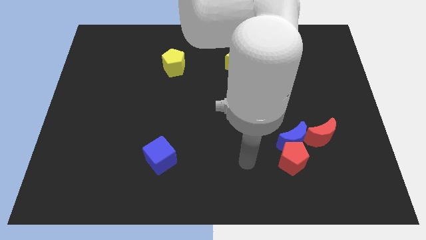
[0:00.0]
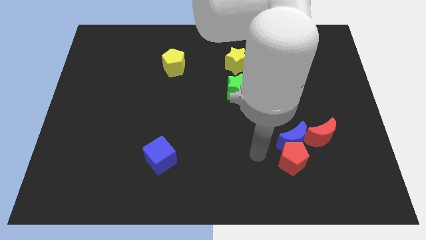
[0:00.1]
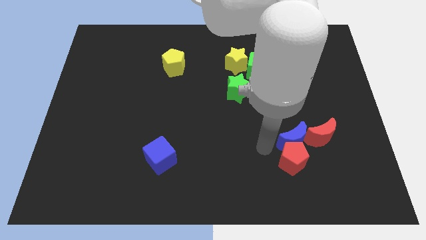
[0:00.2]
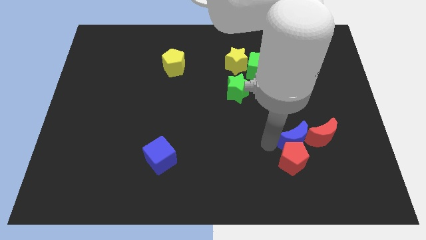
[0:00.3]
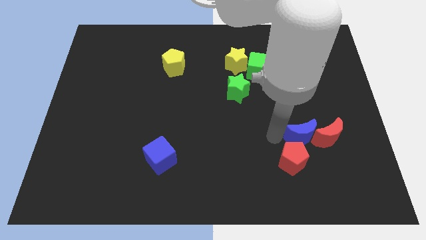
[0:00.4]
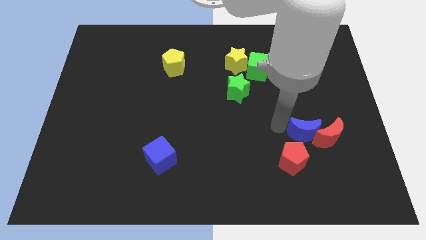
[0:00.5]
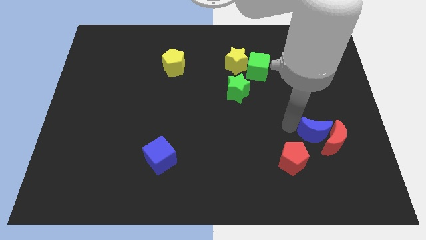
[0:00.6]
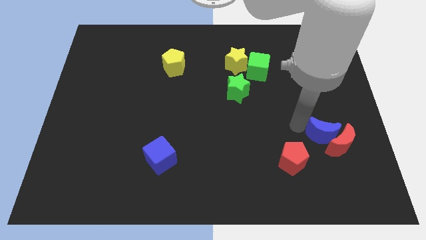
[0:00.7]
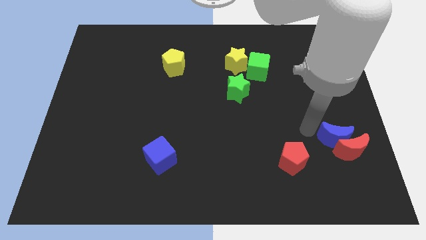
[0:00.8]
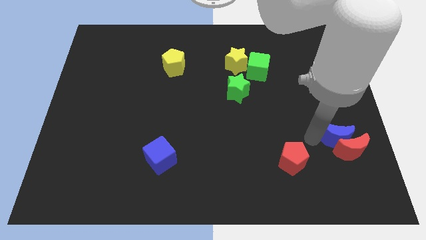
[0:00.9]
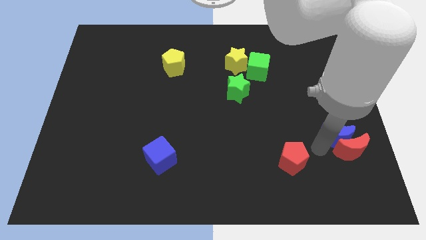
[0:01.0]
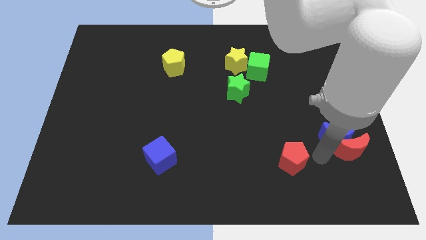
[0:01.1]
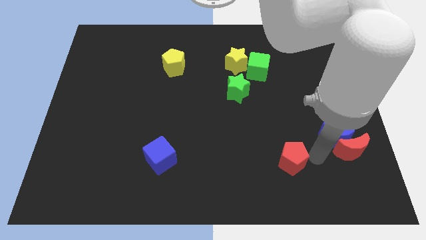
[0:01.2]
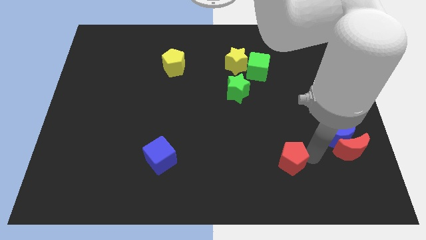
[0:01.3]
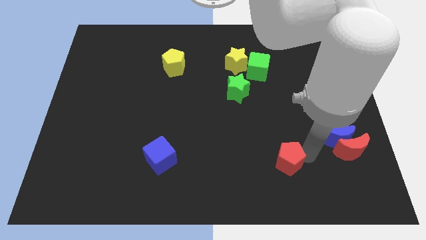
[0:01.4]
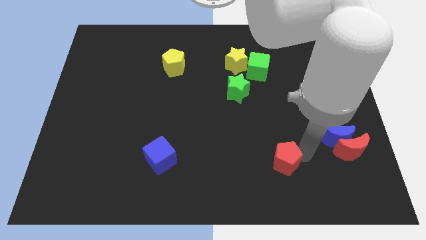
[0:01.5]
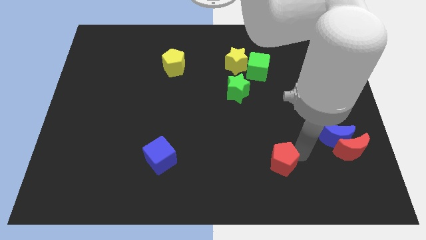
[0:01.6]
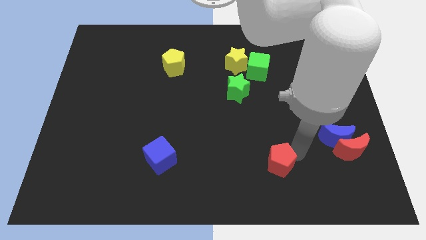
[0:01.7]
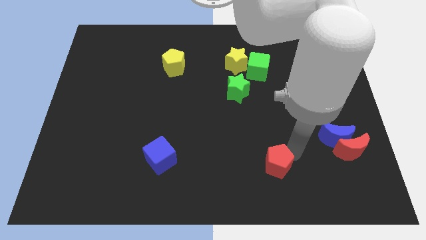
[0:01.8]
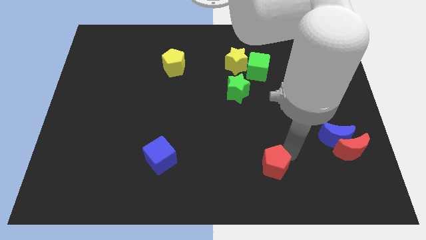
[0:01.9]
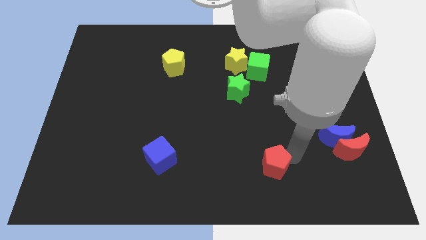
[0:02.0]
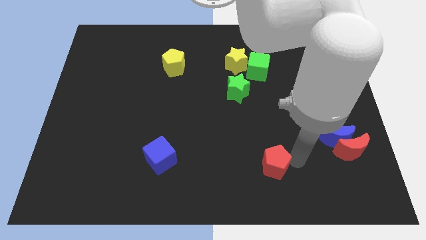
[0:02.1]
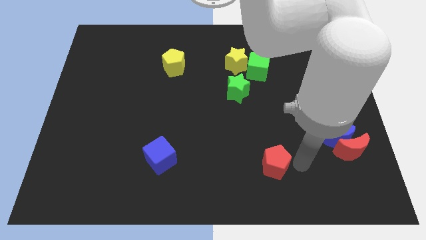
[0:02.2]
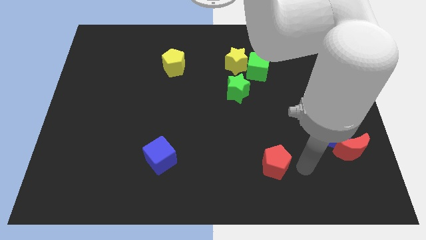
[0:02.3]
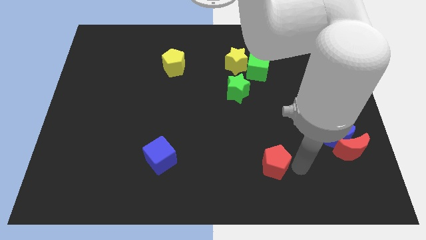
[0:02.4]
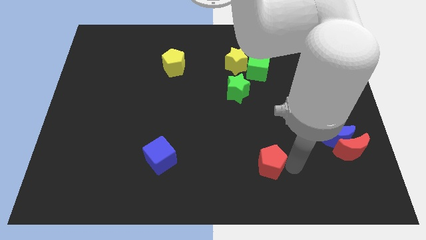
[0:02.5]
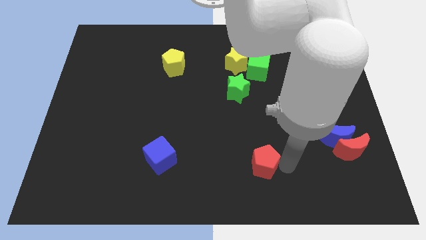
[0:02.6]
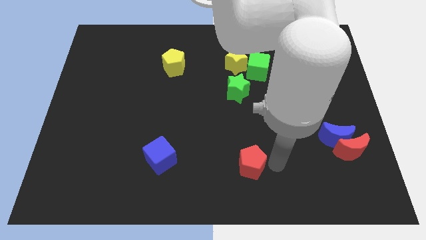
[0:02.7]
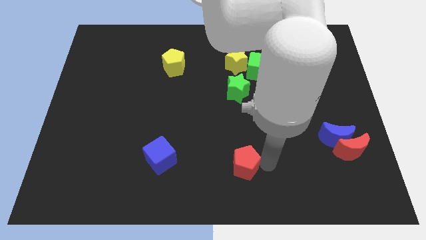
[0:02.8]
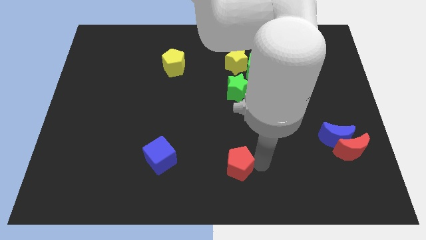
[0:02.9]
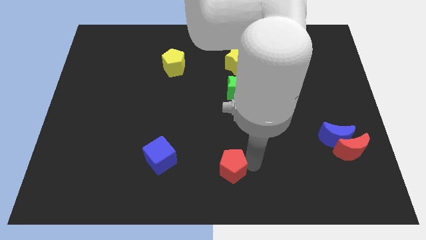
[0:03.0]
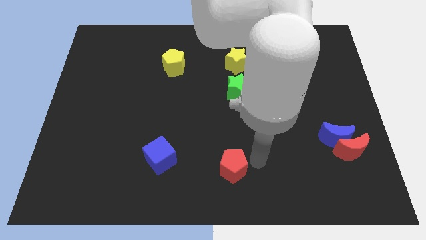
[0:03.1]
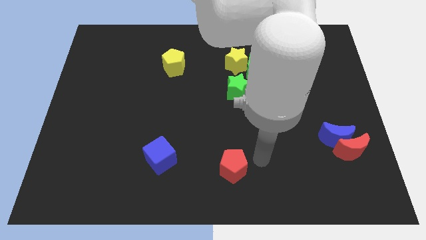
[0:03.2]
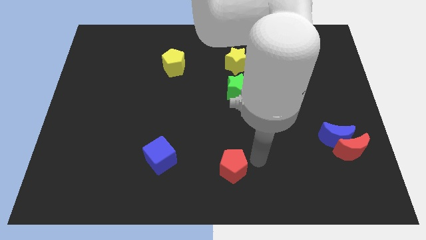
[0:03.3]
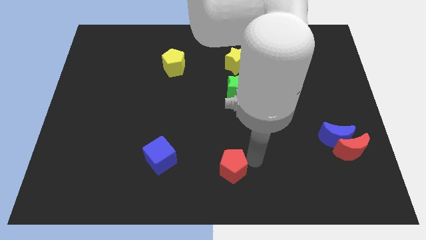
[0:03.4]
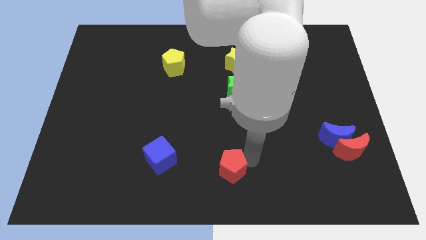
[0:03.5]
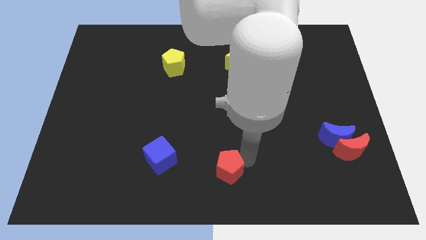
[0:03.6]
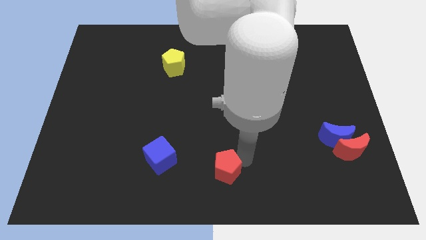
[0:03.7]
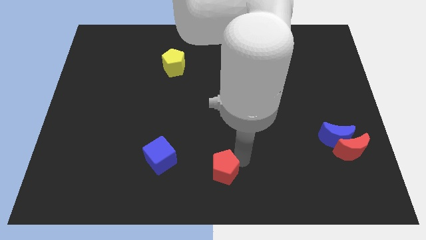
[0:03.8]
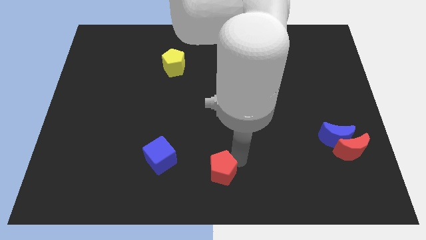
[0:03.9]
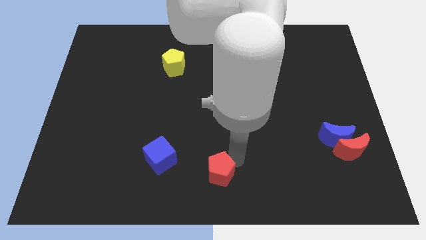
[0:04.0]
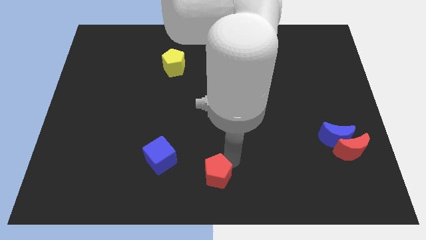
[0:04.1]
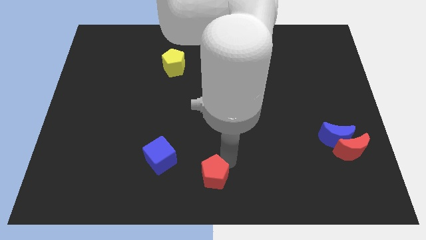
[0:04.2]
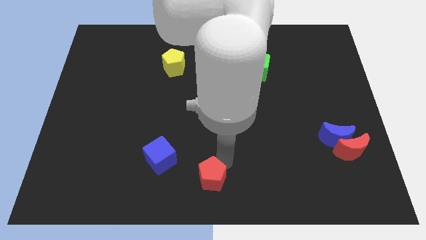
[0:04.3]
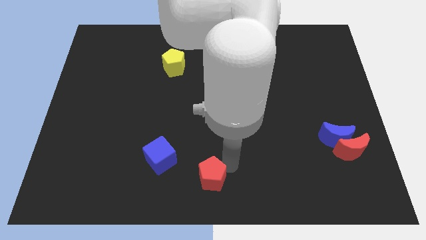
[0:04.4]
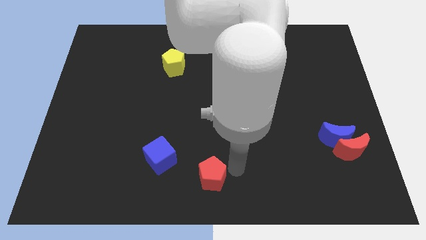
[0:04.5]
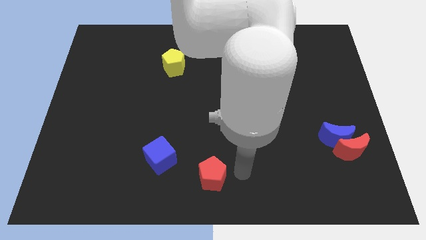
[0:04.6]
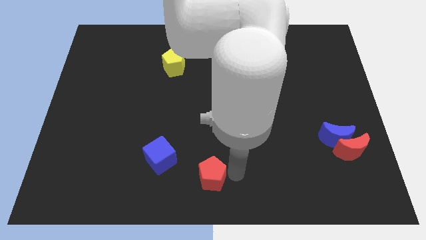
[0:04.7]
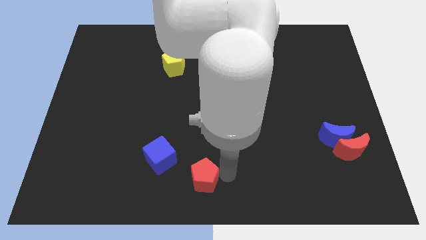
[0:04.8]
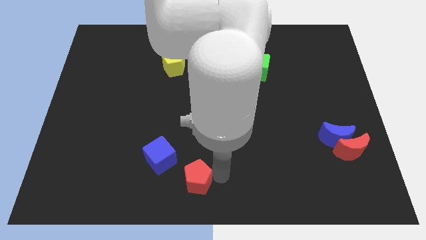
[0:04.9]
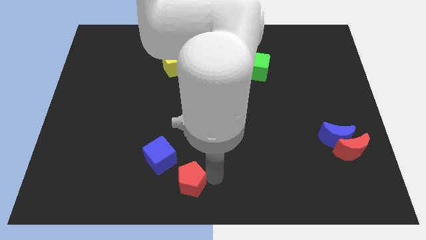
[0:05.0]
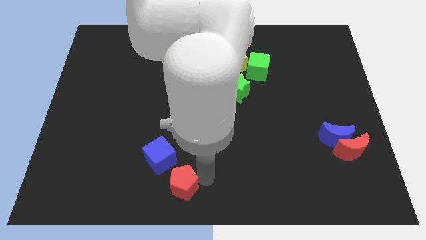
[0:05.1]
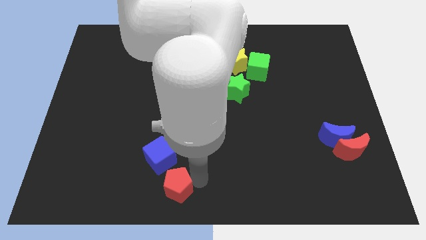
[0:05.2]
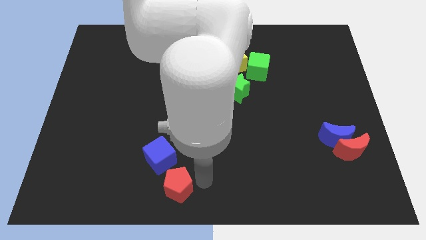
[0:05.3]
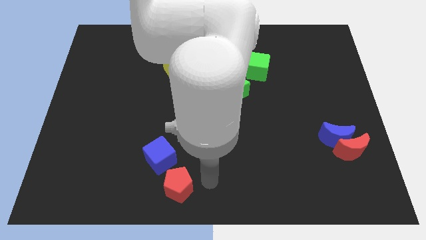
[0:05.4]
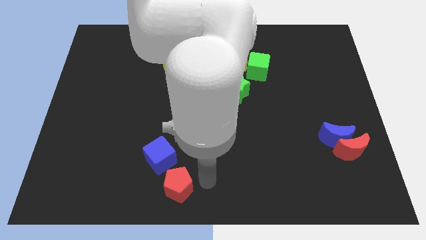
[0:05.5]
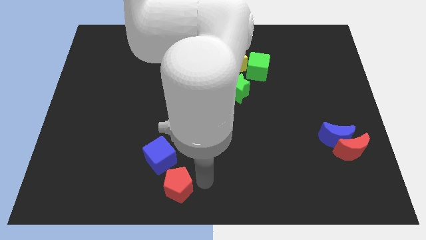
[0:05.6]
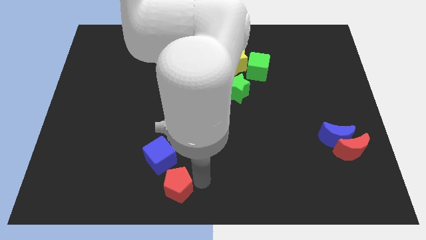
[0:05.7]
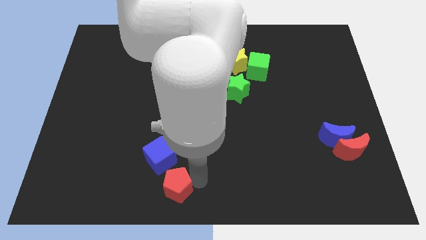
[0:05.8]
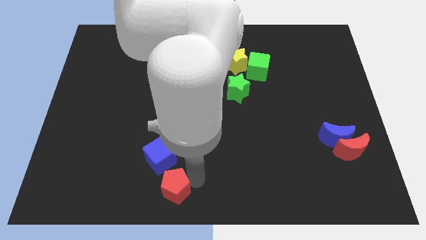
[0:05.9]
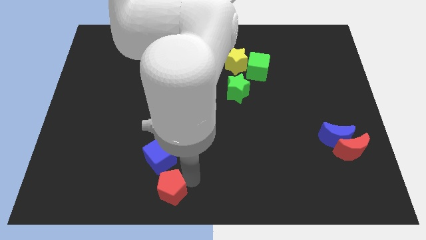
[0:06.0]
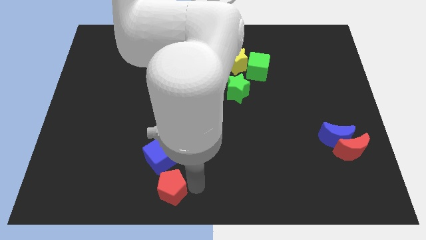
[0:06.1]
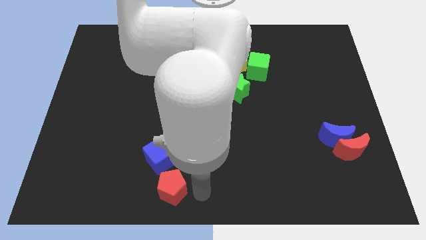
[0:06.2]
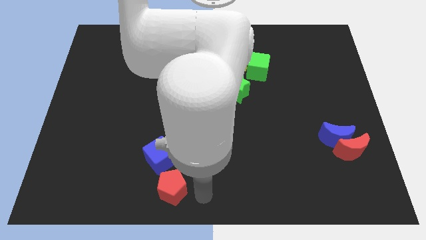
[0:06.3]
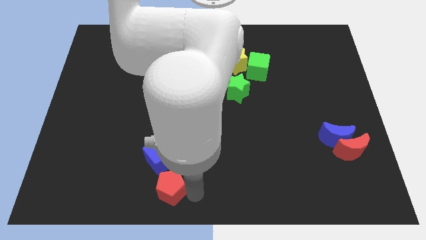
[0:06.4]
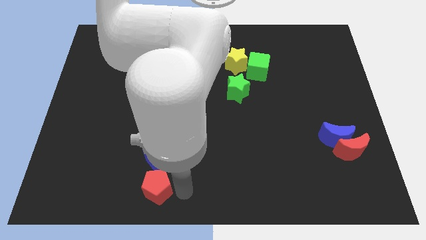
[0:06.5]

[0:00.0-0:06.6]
push the red pentagon to the bottom left of the blue cube

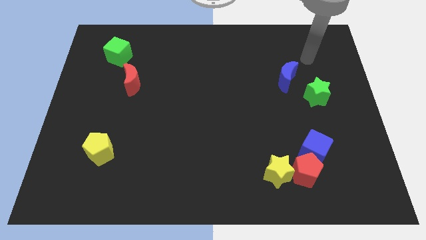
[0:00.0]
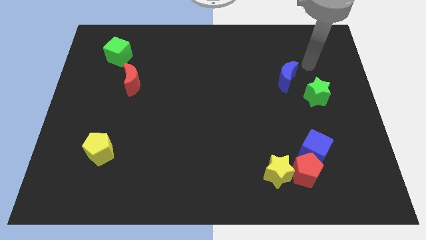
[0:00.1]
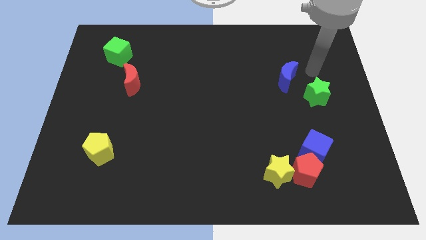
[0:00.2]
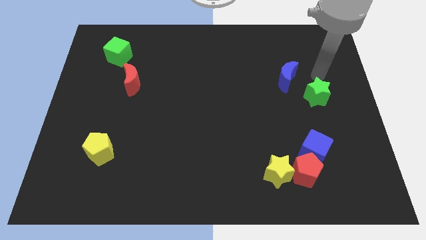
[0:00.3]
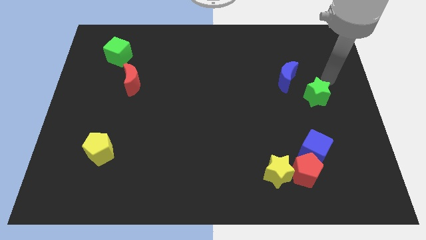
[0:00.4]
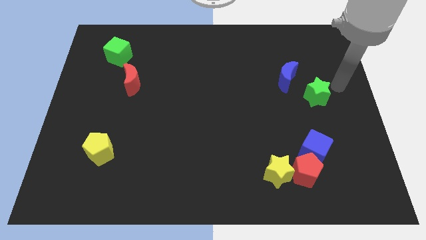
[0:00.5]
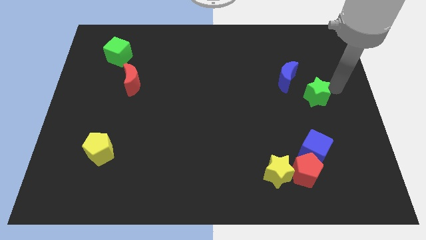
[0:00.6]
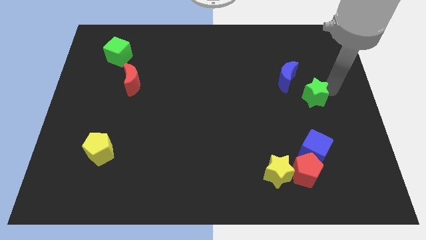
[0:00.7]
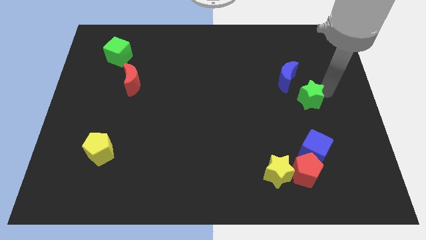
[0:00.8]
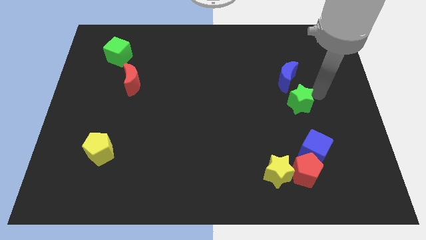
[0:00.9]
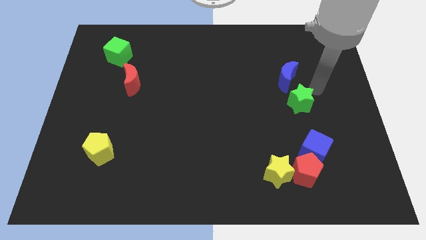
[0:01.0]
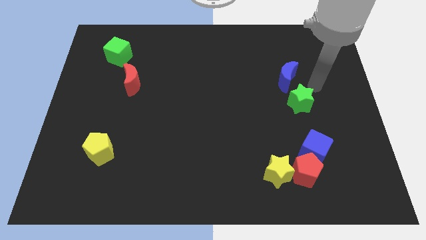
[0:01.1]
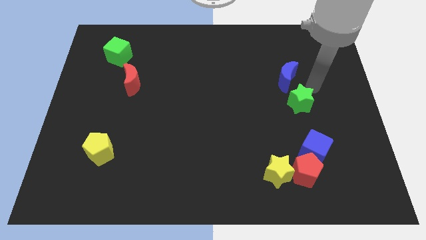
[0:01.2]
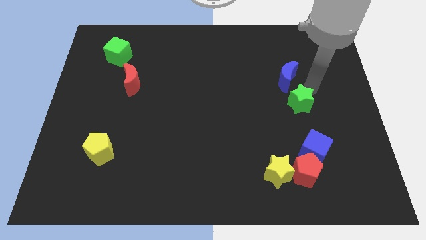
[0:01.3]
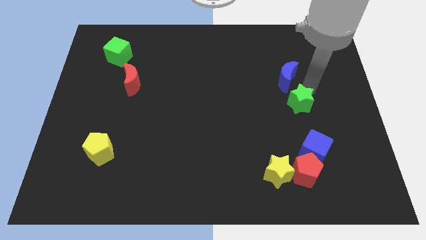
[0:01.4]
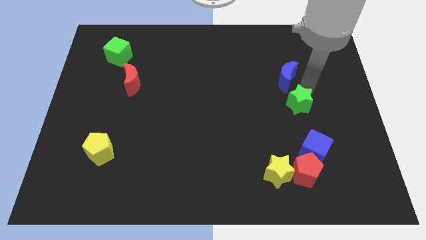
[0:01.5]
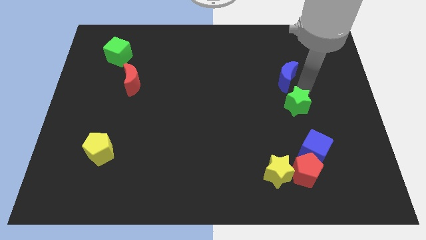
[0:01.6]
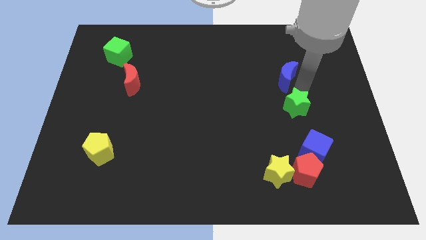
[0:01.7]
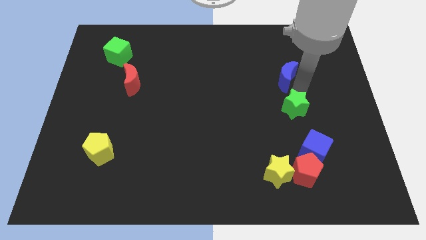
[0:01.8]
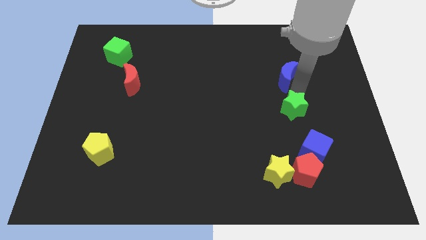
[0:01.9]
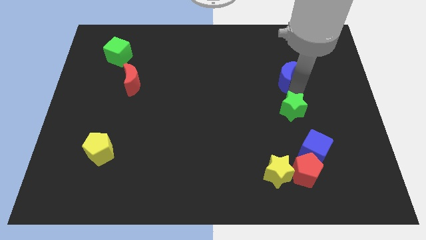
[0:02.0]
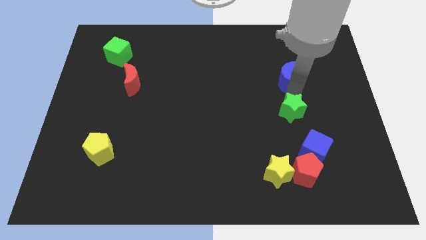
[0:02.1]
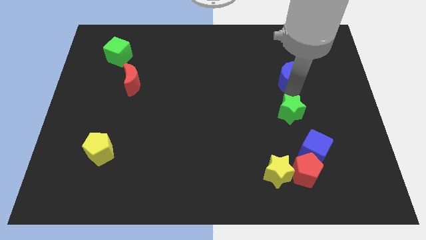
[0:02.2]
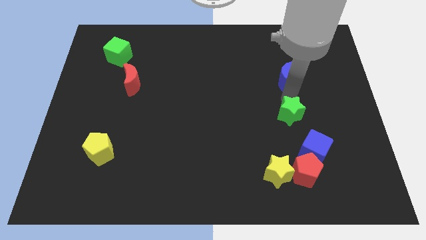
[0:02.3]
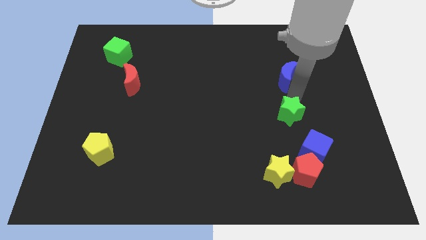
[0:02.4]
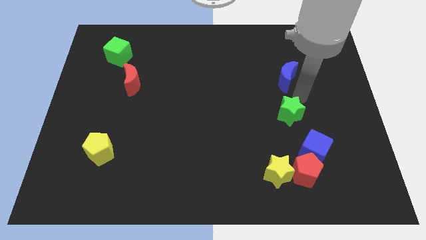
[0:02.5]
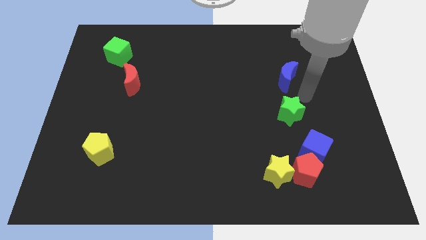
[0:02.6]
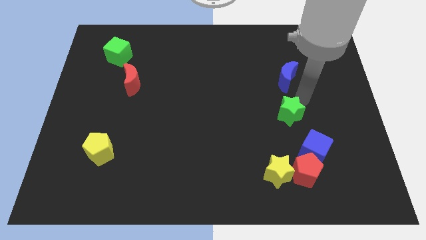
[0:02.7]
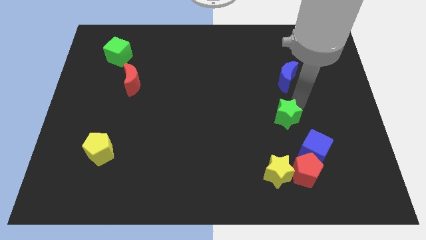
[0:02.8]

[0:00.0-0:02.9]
move the green star to the top of the yellow star
